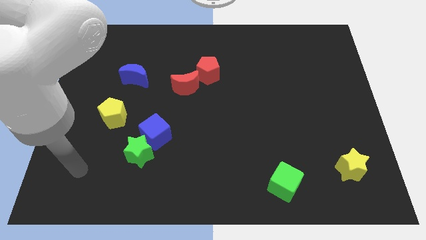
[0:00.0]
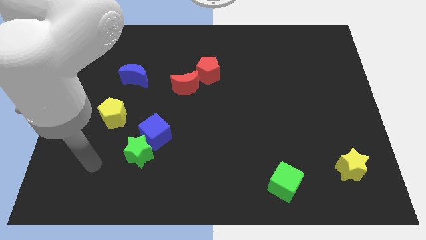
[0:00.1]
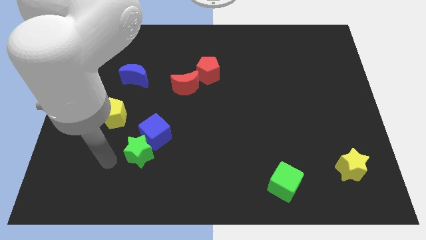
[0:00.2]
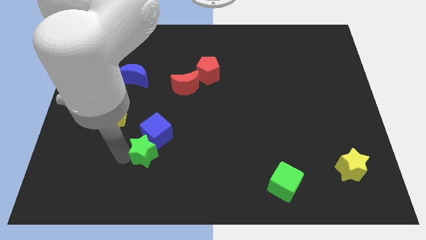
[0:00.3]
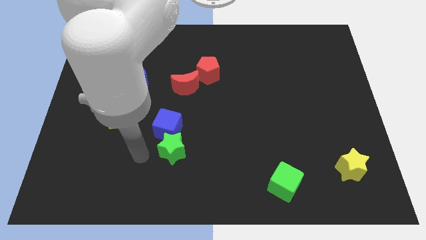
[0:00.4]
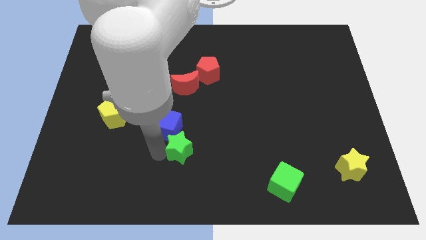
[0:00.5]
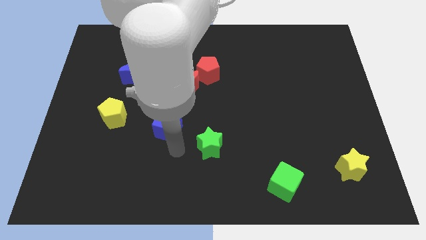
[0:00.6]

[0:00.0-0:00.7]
separate the blue cube from the green star

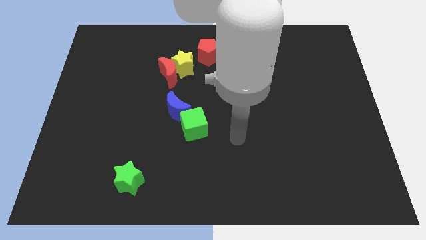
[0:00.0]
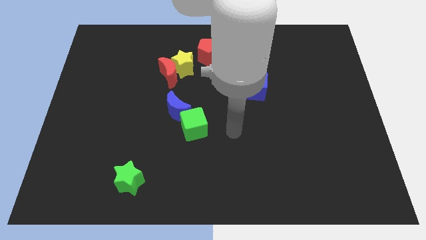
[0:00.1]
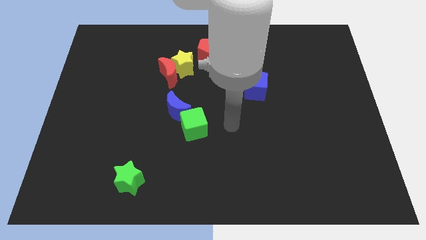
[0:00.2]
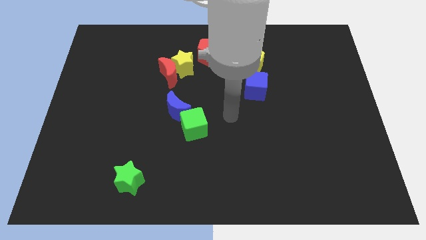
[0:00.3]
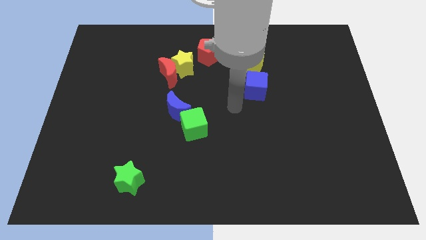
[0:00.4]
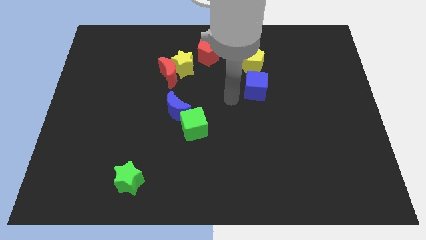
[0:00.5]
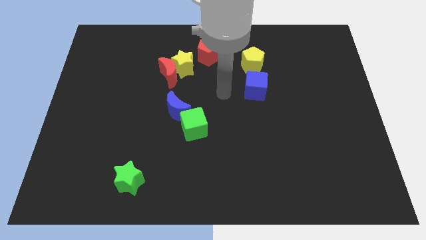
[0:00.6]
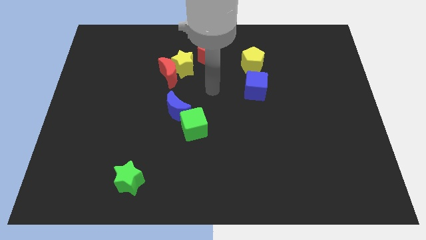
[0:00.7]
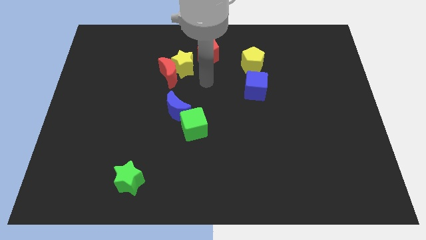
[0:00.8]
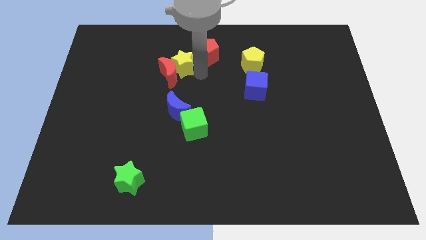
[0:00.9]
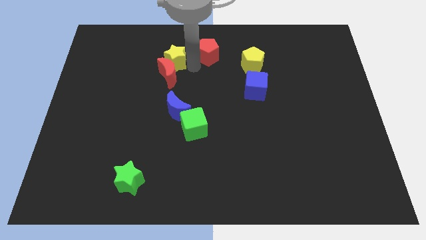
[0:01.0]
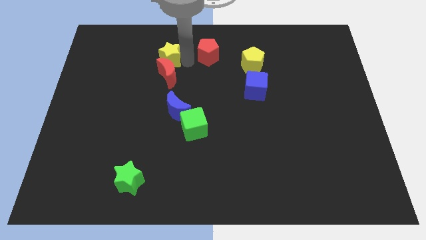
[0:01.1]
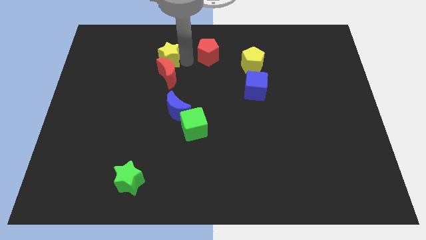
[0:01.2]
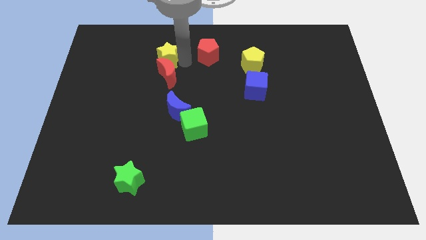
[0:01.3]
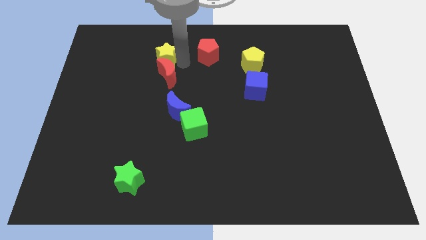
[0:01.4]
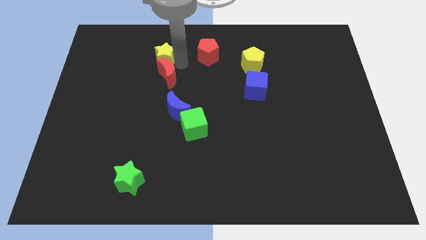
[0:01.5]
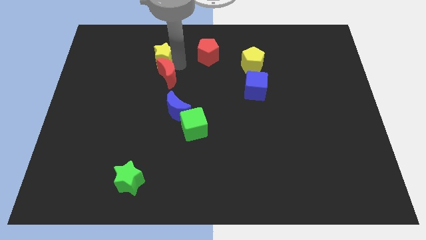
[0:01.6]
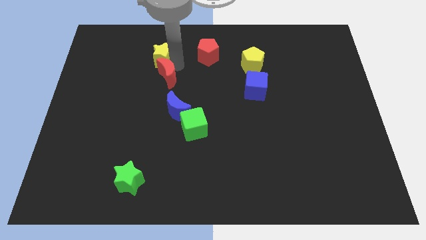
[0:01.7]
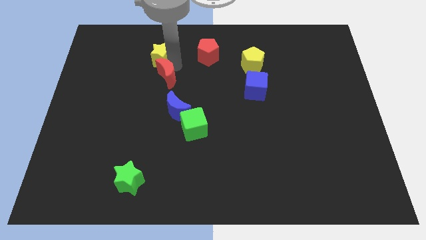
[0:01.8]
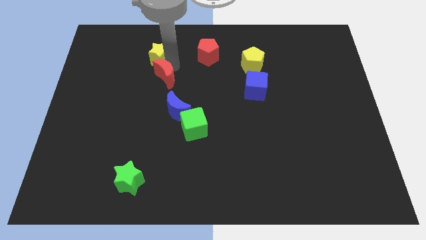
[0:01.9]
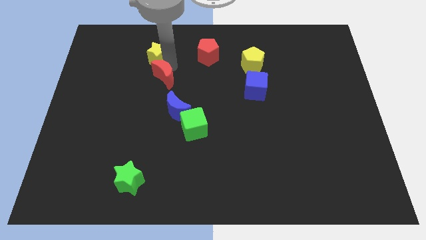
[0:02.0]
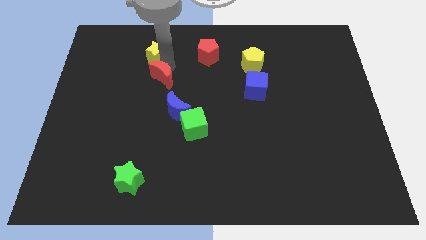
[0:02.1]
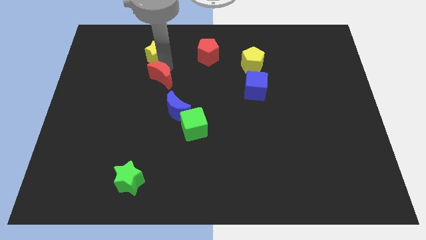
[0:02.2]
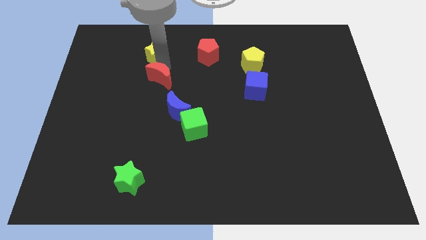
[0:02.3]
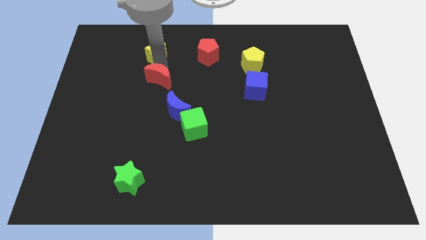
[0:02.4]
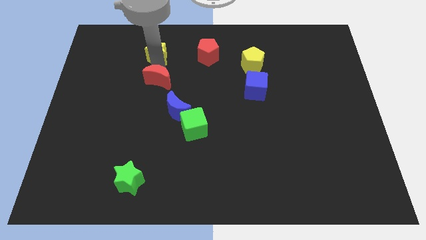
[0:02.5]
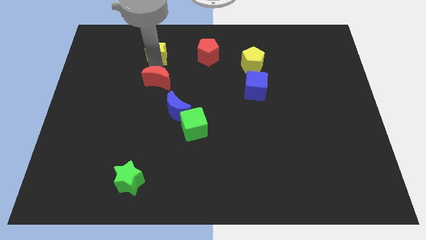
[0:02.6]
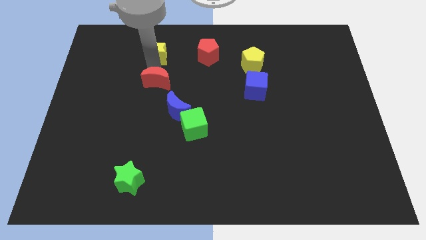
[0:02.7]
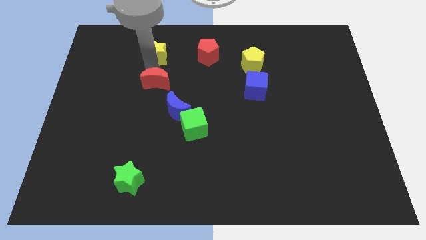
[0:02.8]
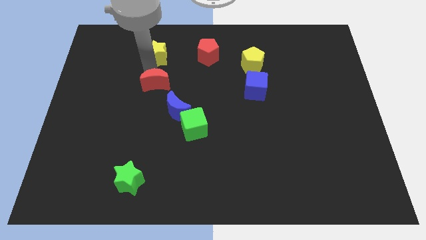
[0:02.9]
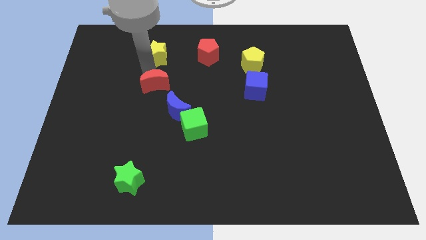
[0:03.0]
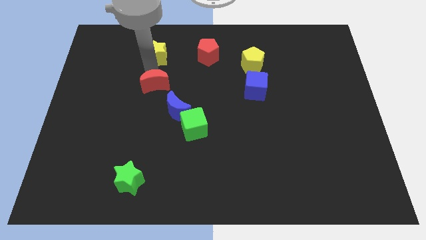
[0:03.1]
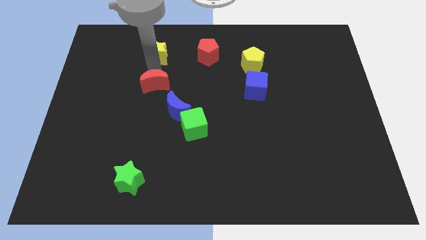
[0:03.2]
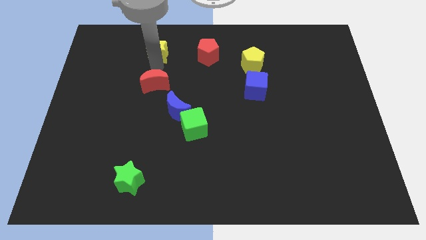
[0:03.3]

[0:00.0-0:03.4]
move the red moon away from the yellow star

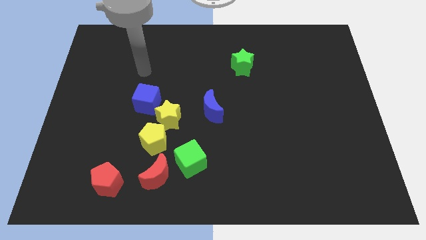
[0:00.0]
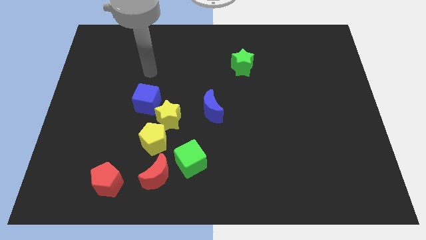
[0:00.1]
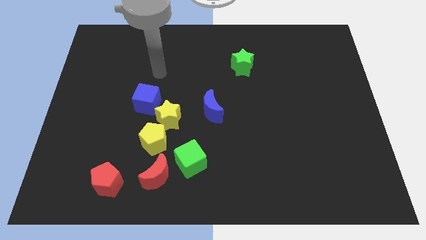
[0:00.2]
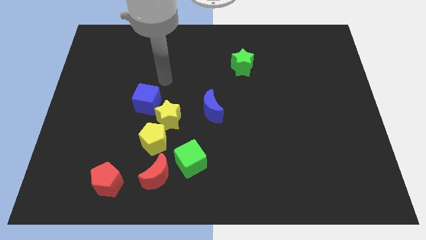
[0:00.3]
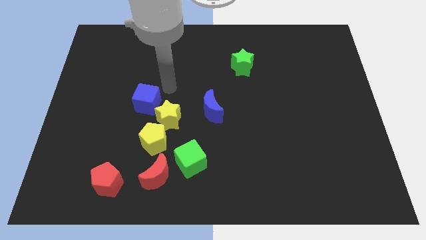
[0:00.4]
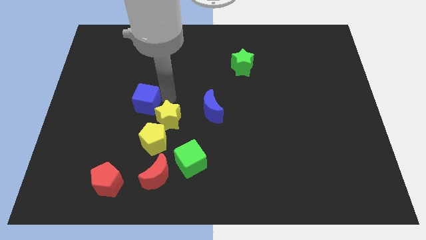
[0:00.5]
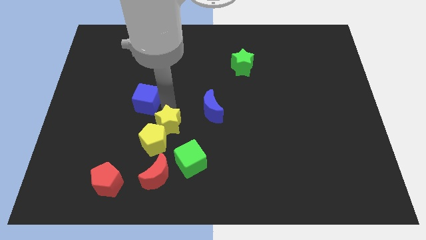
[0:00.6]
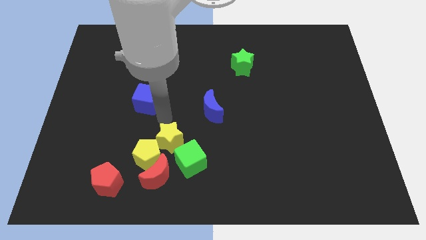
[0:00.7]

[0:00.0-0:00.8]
separate the blue cube from the yellow star

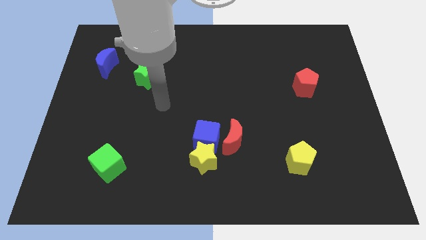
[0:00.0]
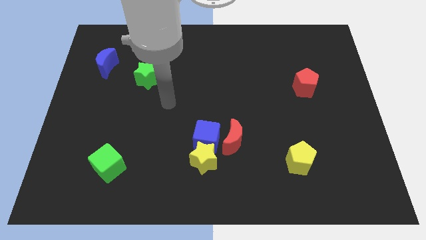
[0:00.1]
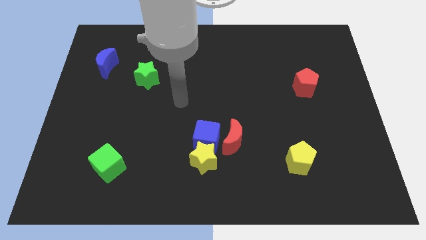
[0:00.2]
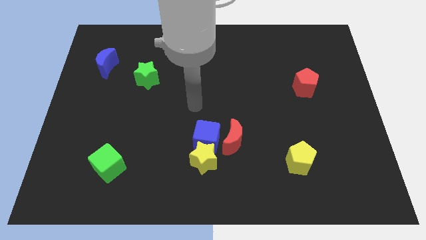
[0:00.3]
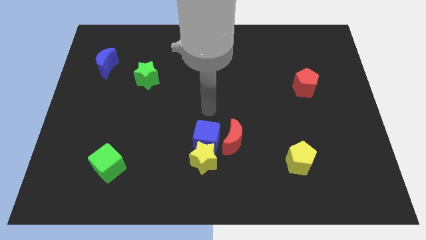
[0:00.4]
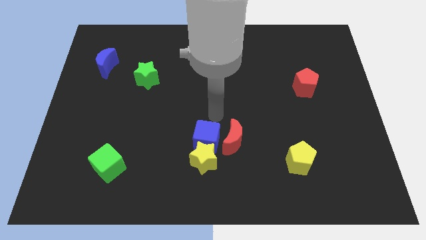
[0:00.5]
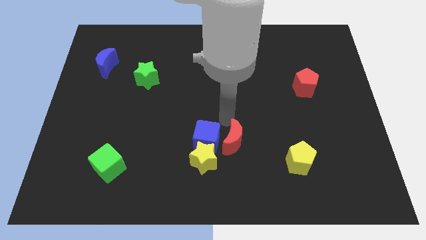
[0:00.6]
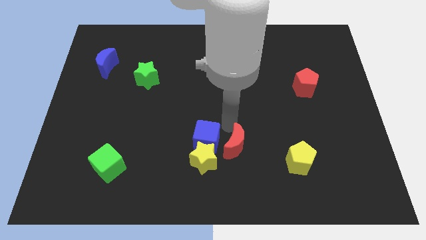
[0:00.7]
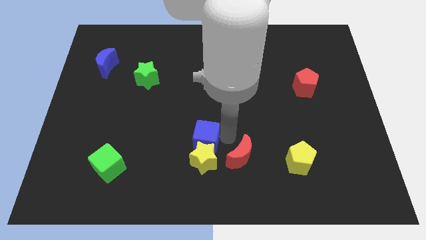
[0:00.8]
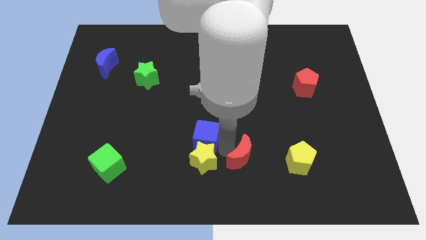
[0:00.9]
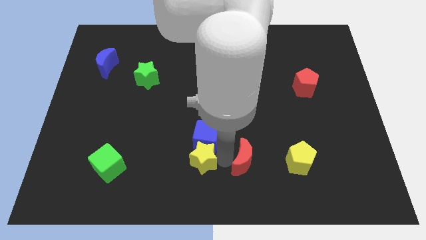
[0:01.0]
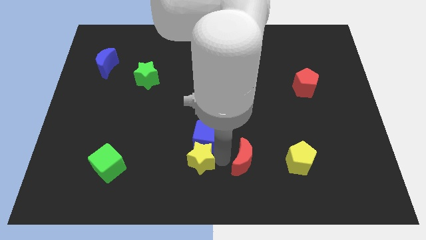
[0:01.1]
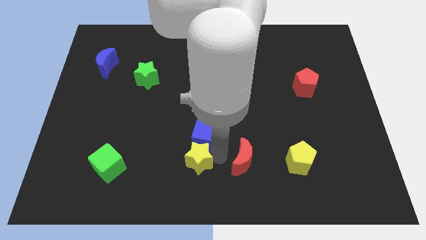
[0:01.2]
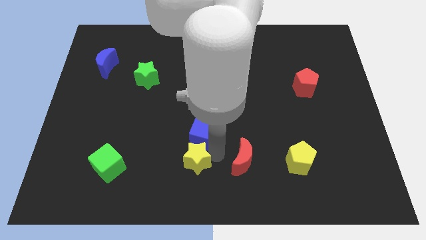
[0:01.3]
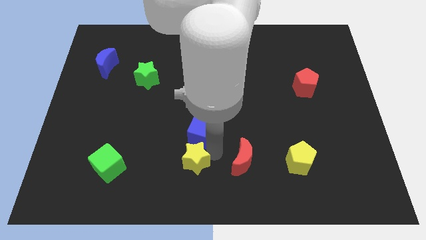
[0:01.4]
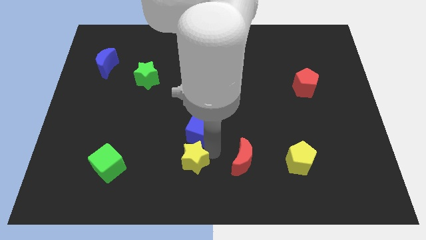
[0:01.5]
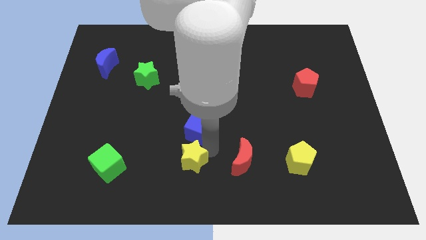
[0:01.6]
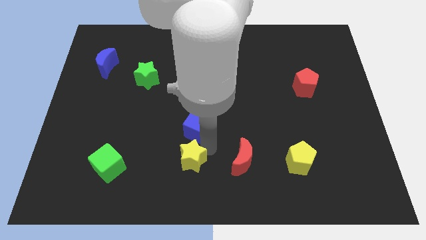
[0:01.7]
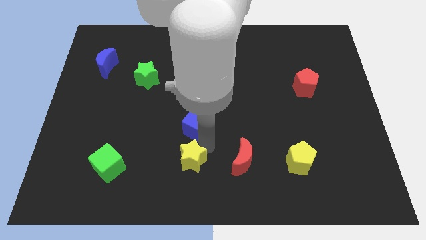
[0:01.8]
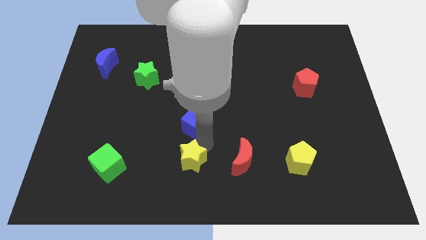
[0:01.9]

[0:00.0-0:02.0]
separate the blue cube from the yellow star and red moon

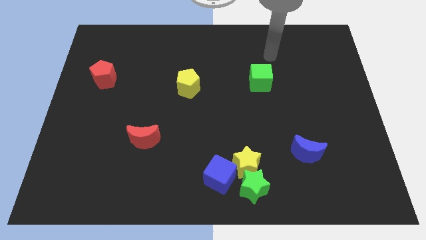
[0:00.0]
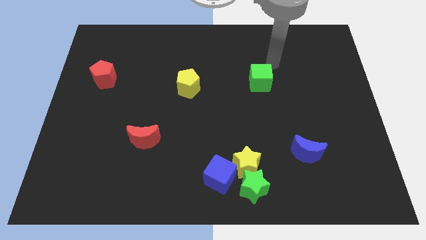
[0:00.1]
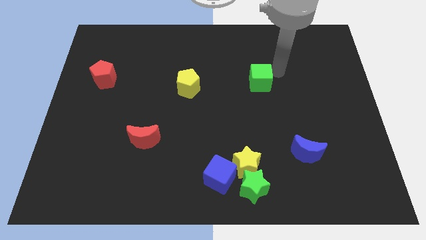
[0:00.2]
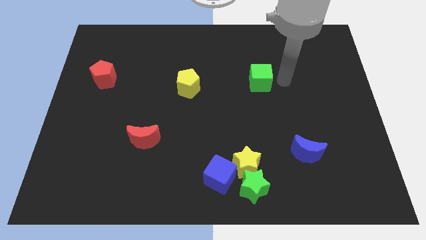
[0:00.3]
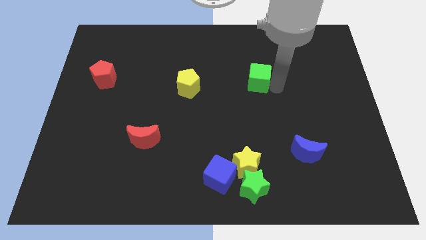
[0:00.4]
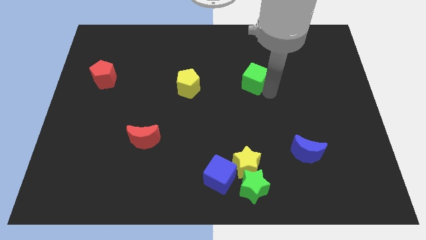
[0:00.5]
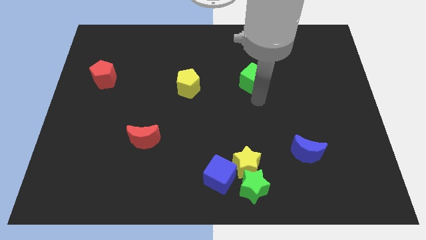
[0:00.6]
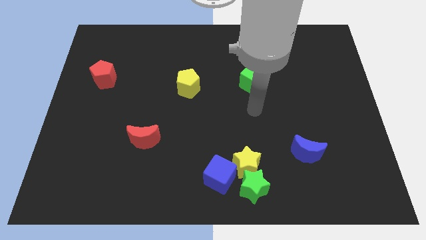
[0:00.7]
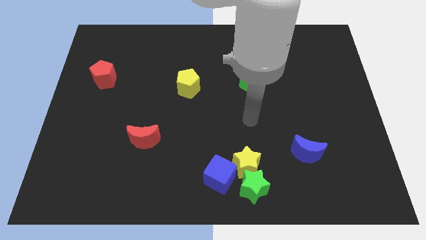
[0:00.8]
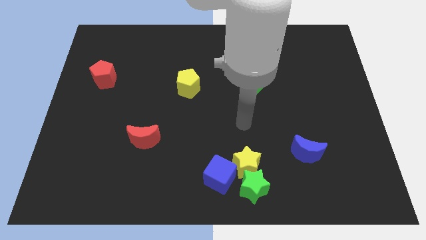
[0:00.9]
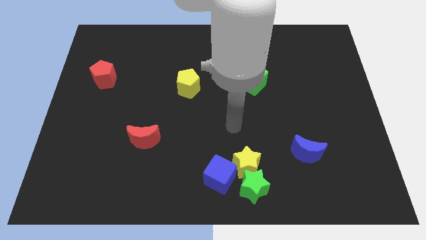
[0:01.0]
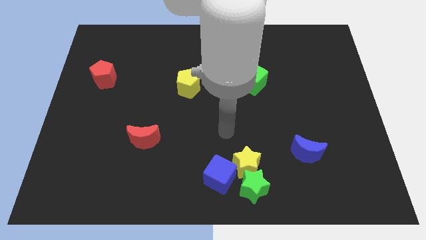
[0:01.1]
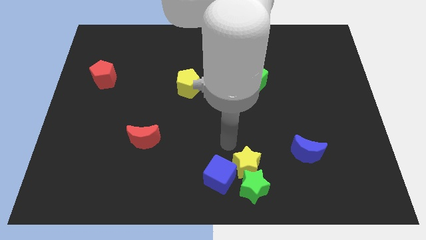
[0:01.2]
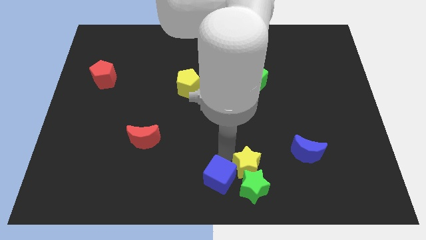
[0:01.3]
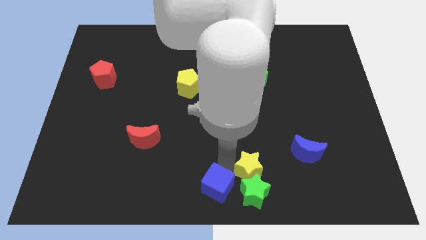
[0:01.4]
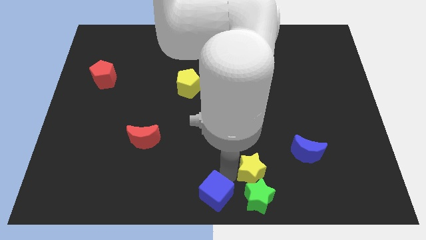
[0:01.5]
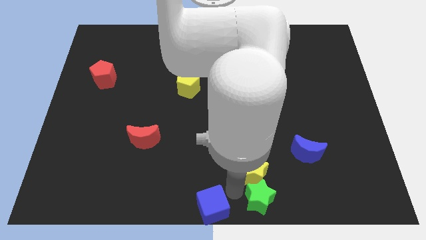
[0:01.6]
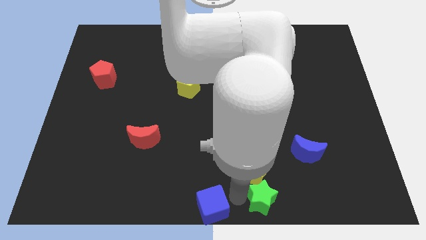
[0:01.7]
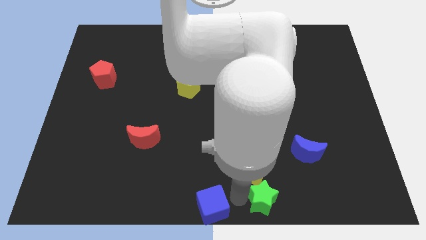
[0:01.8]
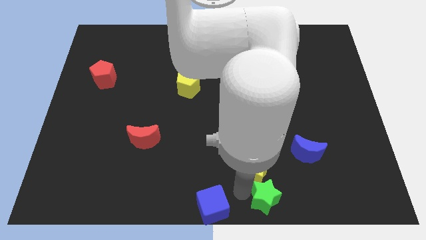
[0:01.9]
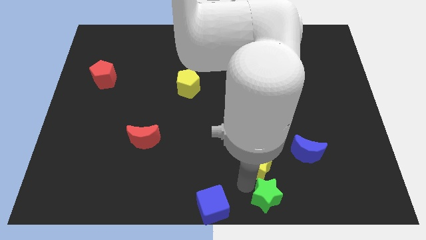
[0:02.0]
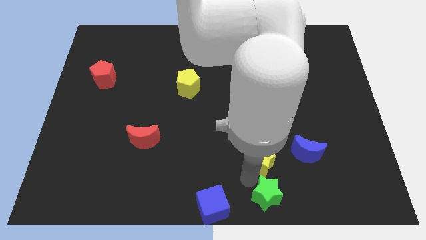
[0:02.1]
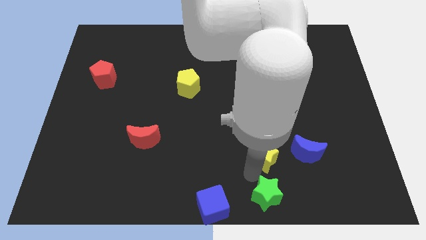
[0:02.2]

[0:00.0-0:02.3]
pull the yellow star apart from the green star and blue cube
